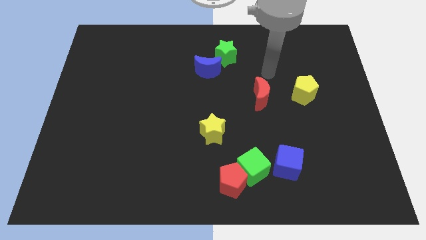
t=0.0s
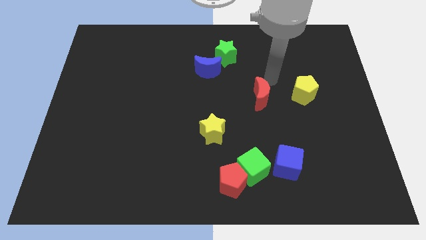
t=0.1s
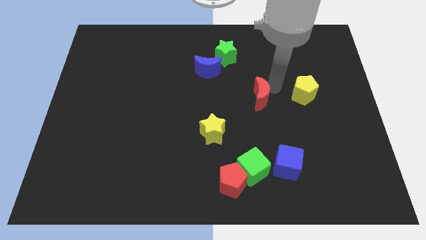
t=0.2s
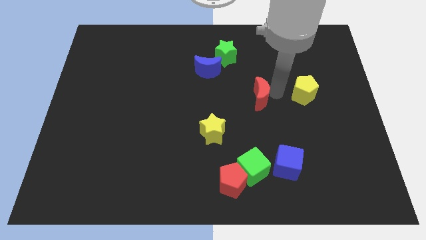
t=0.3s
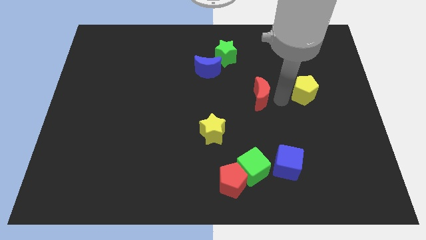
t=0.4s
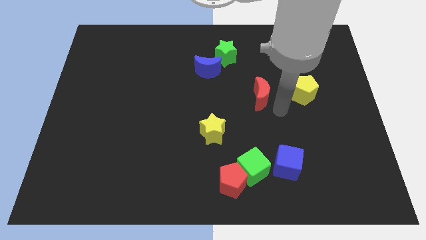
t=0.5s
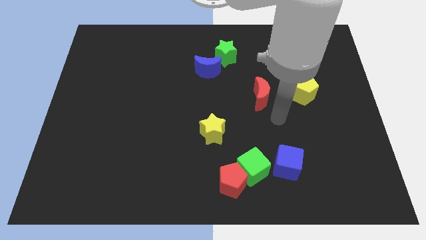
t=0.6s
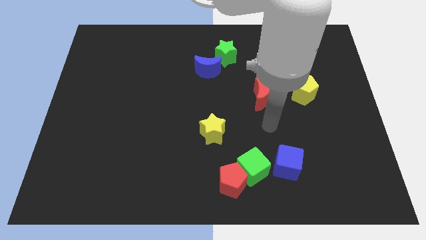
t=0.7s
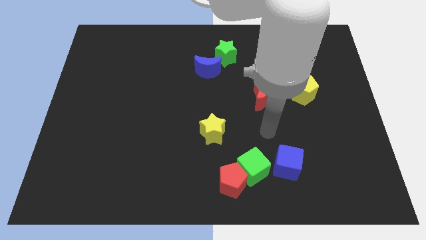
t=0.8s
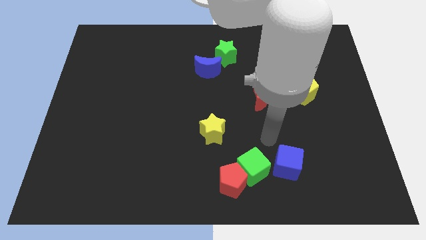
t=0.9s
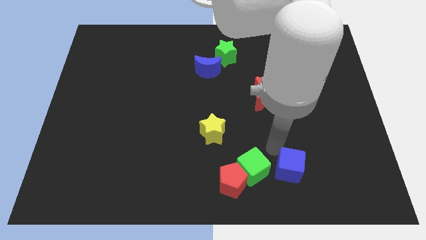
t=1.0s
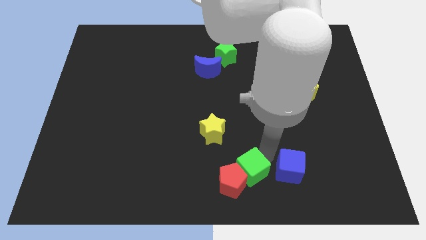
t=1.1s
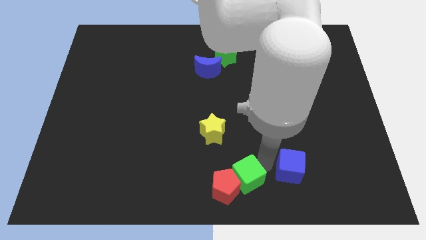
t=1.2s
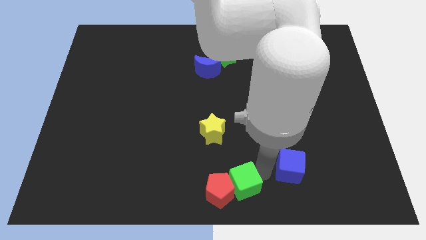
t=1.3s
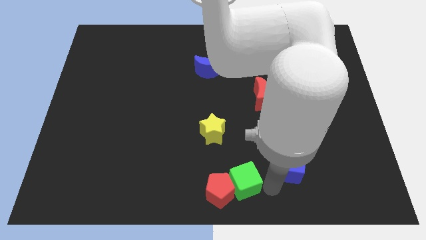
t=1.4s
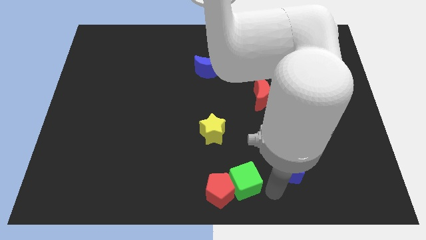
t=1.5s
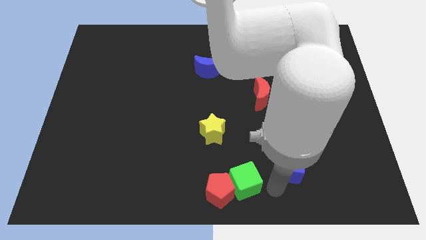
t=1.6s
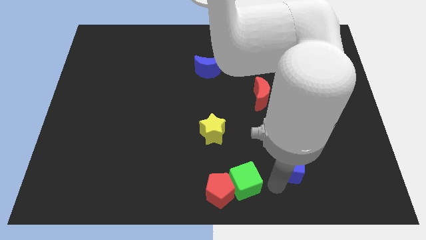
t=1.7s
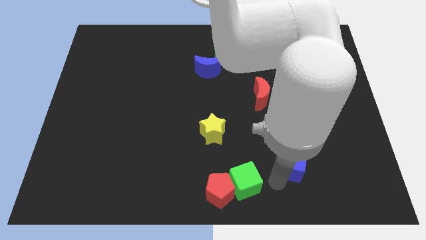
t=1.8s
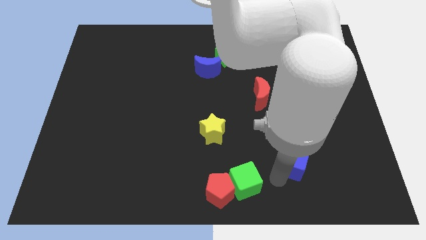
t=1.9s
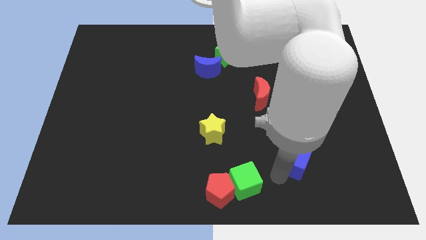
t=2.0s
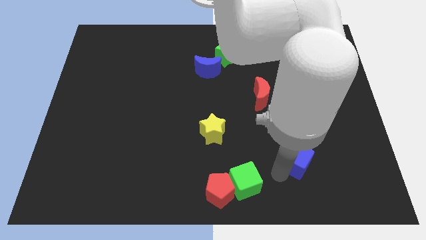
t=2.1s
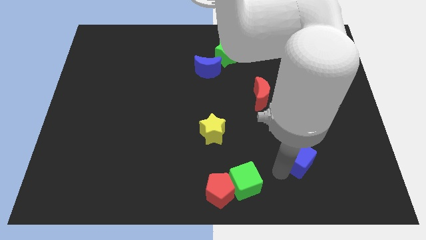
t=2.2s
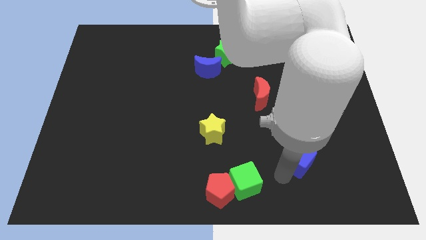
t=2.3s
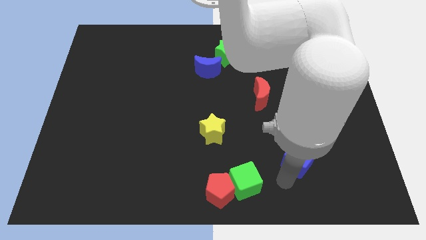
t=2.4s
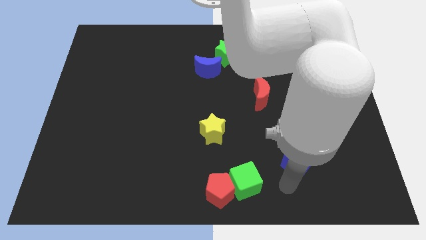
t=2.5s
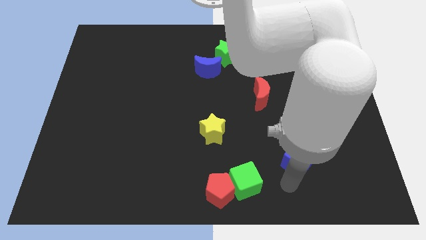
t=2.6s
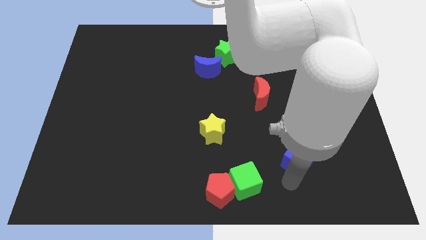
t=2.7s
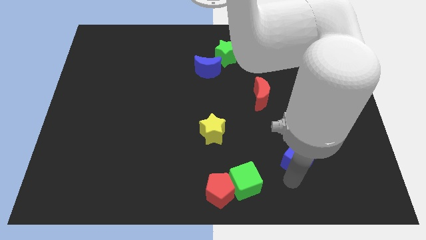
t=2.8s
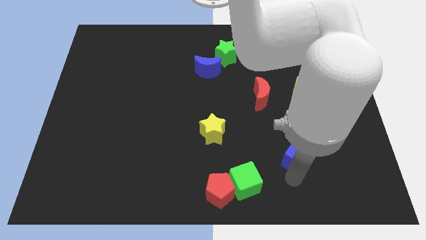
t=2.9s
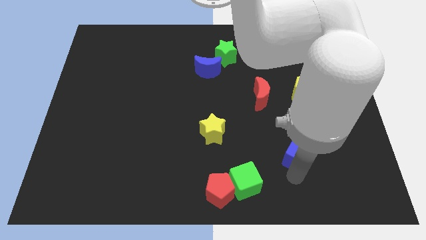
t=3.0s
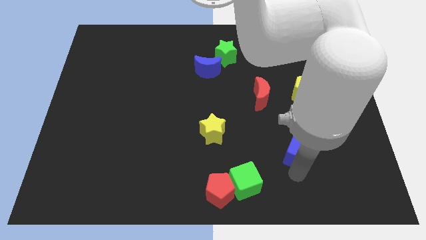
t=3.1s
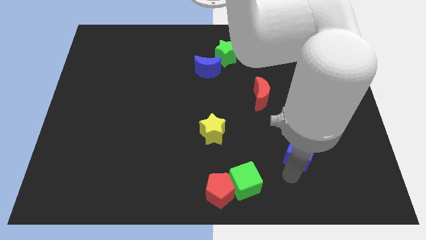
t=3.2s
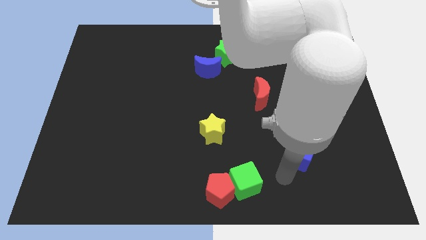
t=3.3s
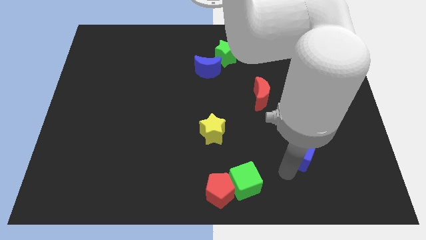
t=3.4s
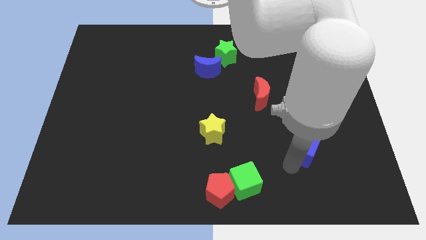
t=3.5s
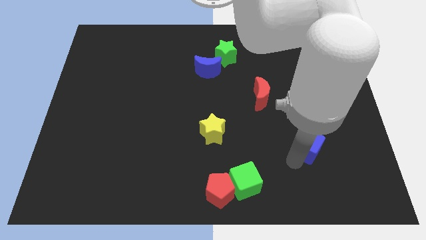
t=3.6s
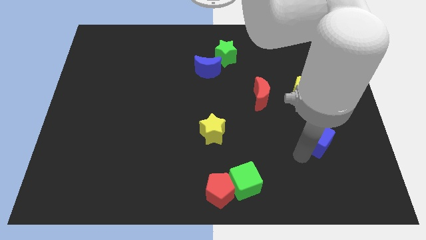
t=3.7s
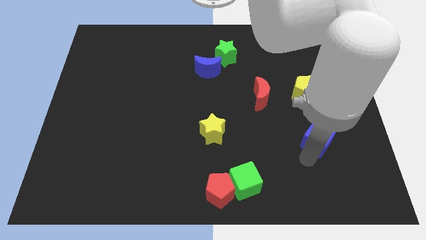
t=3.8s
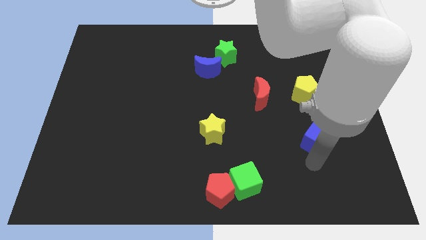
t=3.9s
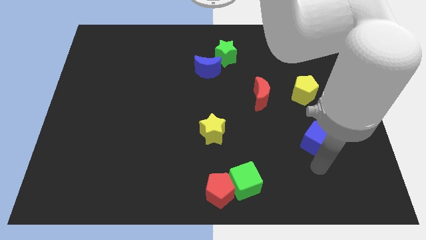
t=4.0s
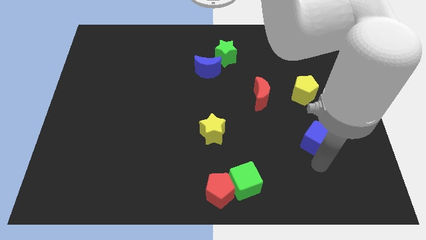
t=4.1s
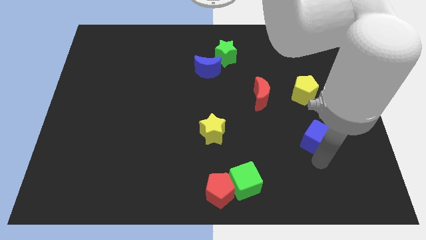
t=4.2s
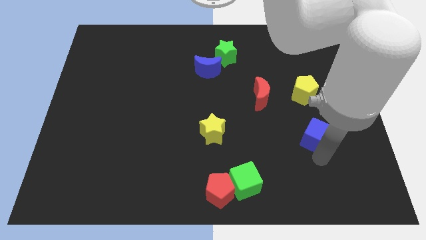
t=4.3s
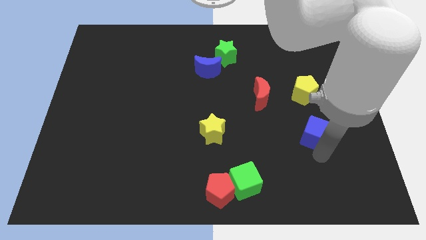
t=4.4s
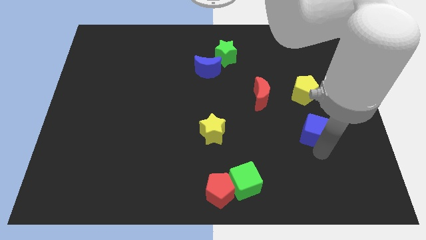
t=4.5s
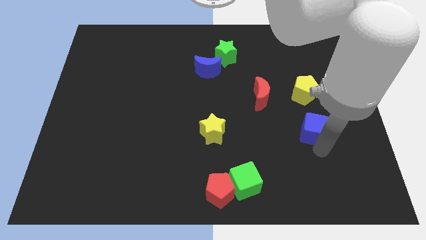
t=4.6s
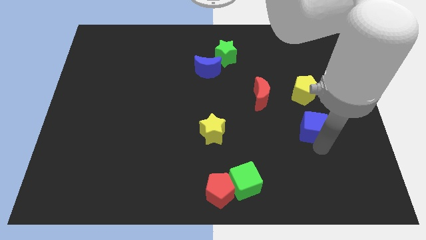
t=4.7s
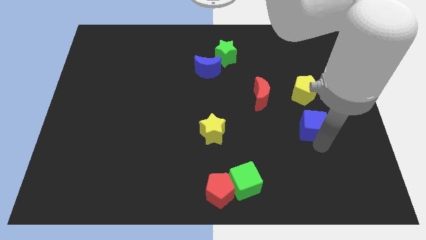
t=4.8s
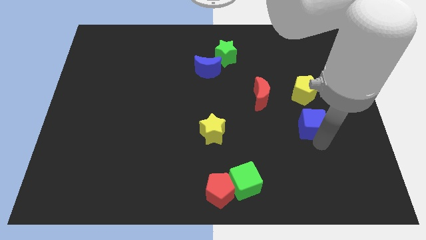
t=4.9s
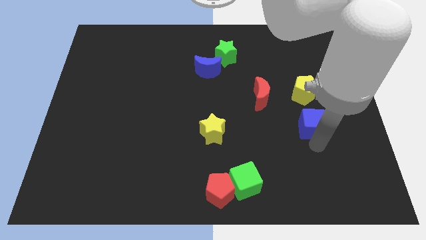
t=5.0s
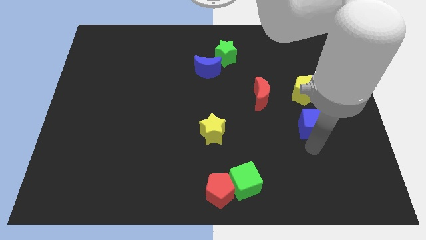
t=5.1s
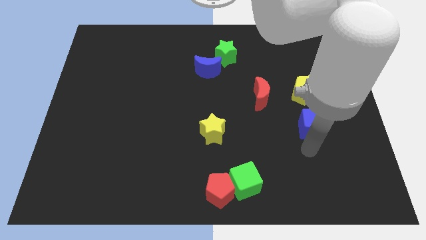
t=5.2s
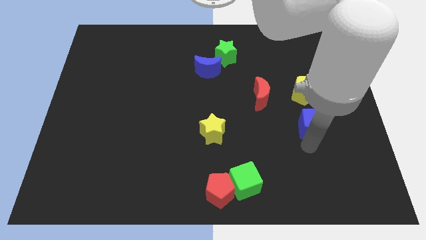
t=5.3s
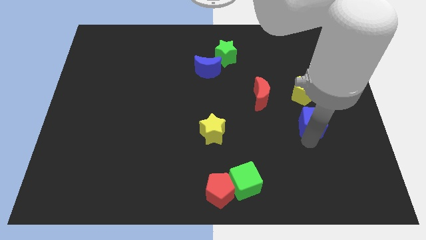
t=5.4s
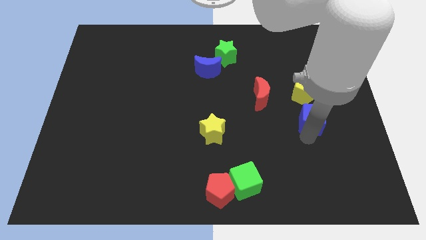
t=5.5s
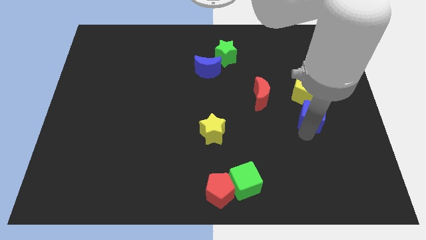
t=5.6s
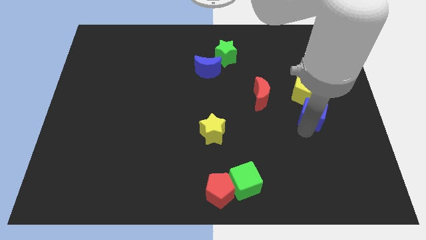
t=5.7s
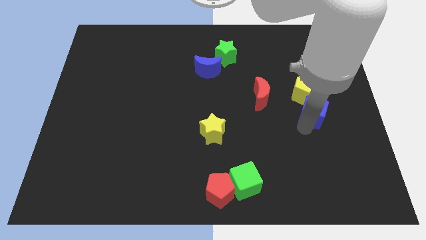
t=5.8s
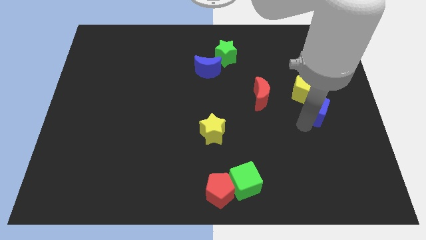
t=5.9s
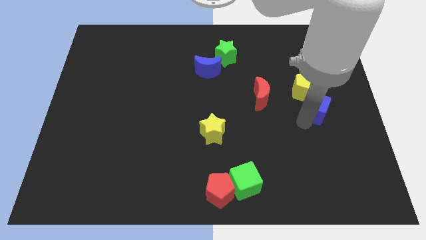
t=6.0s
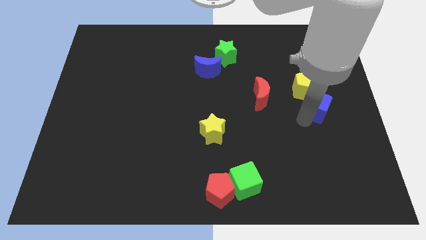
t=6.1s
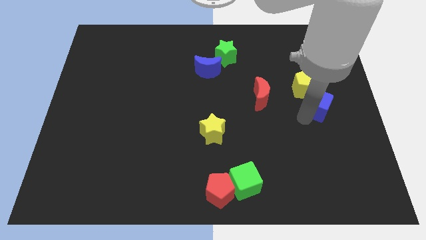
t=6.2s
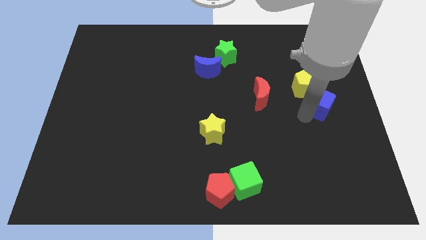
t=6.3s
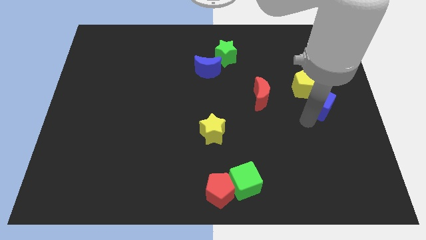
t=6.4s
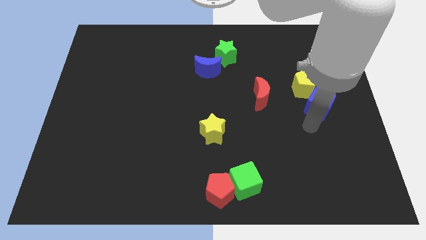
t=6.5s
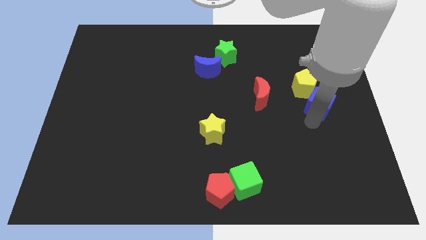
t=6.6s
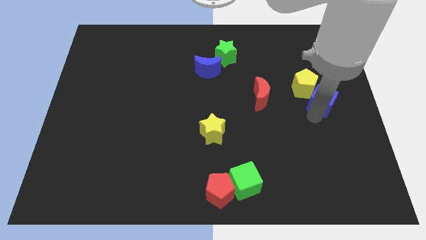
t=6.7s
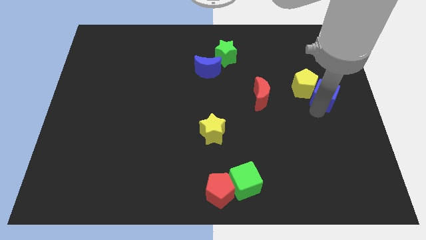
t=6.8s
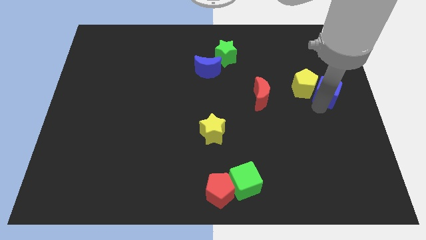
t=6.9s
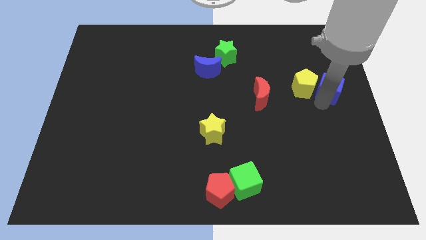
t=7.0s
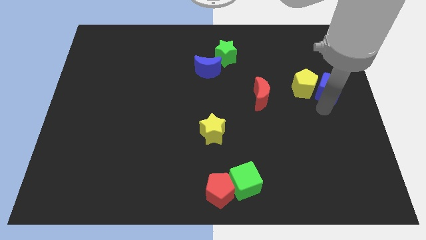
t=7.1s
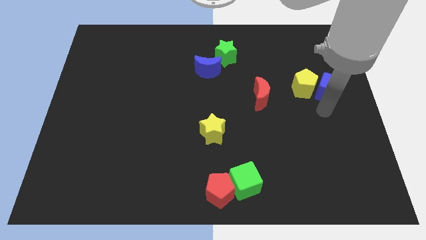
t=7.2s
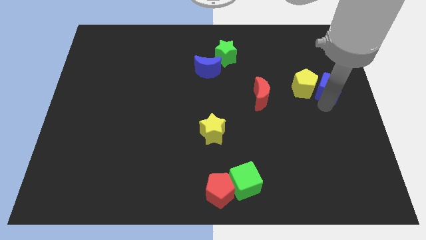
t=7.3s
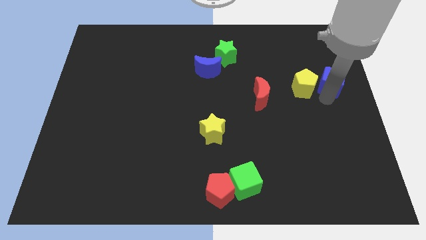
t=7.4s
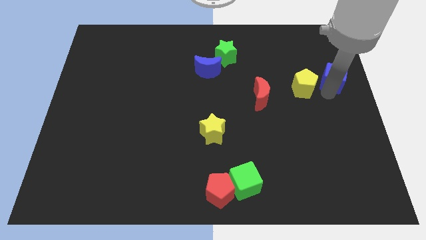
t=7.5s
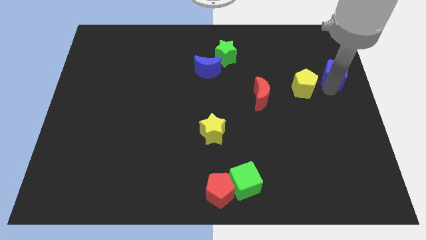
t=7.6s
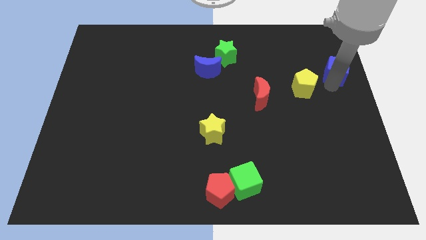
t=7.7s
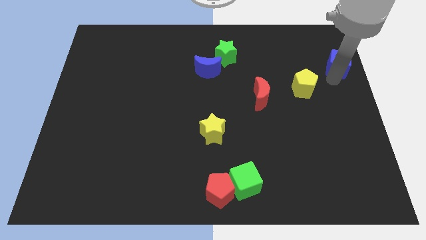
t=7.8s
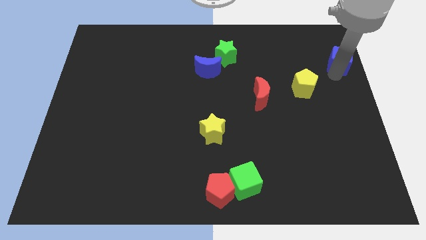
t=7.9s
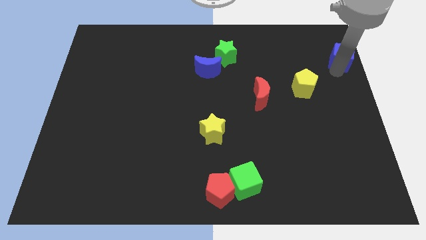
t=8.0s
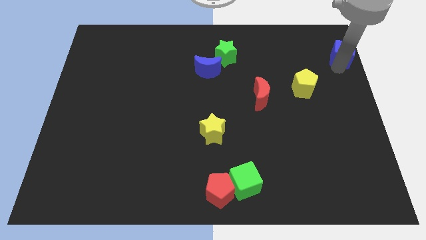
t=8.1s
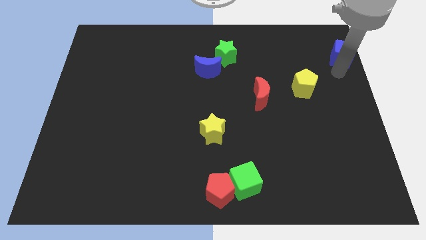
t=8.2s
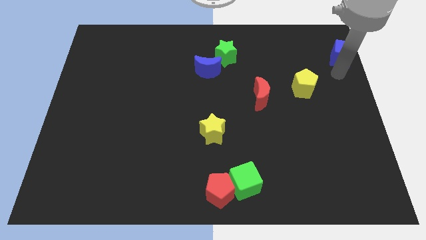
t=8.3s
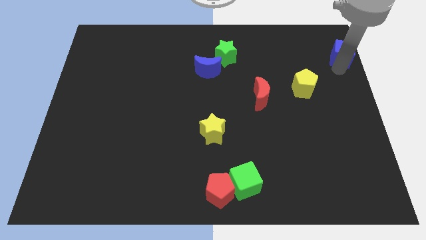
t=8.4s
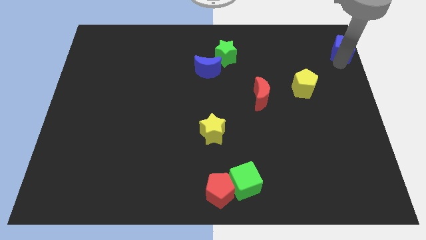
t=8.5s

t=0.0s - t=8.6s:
put the blue cube to the top right
